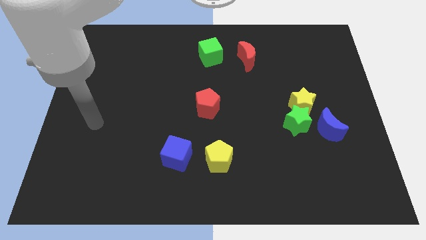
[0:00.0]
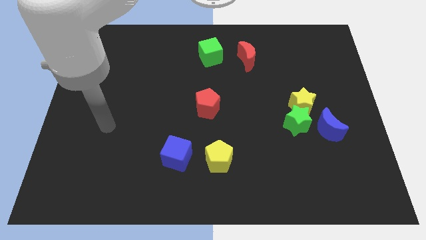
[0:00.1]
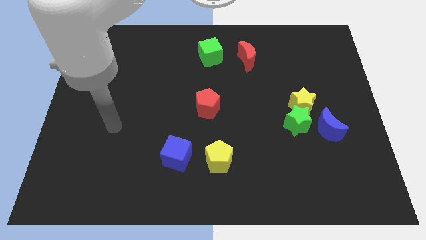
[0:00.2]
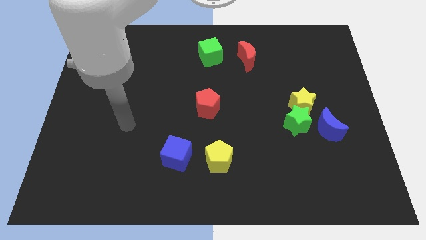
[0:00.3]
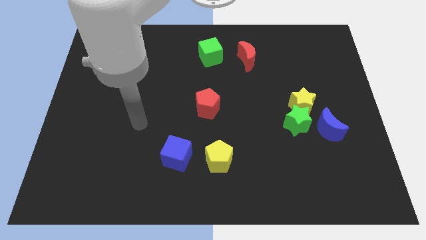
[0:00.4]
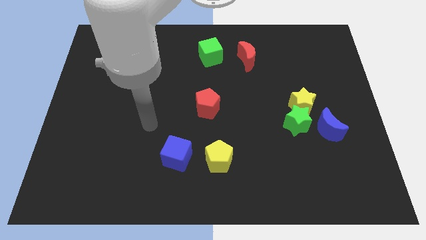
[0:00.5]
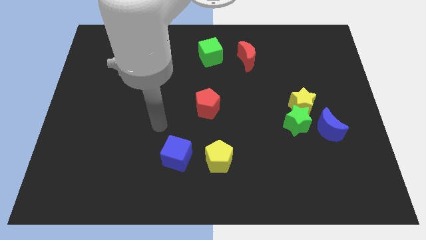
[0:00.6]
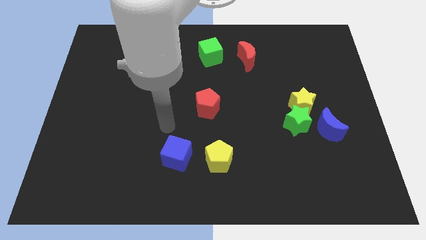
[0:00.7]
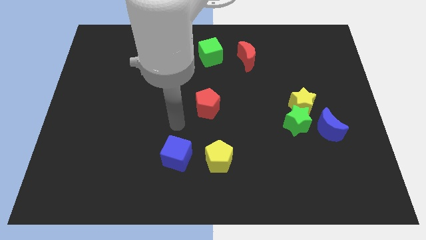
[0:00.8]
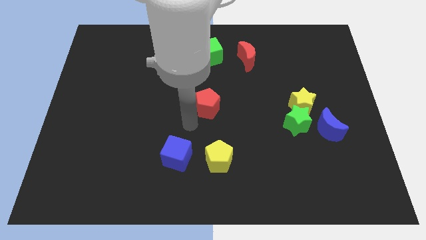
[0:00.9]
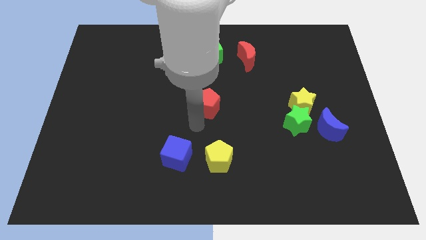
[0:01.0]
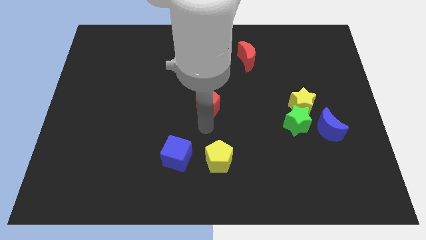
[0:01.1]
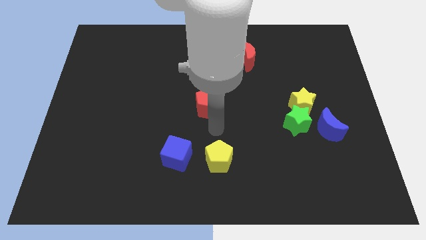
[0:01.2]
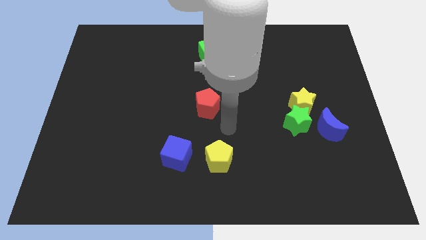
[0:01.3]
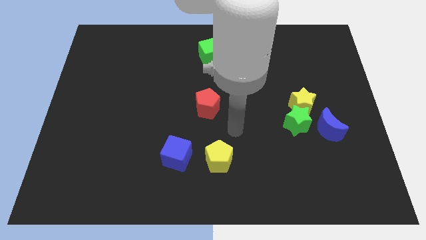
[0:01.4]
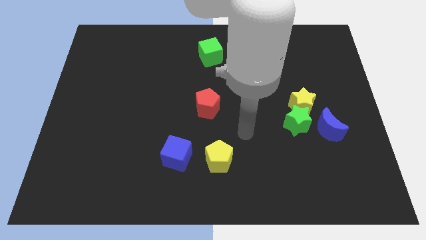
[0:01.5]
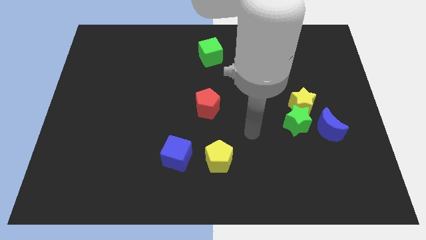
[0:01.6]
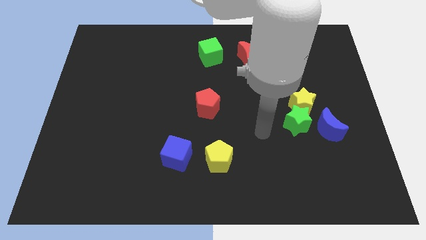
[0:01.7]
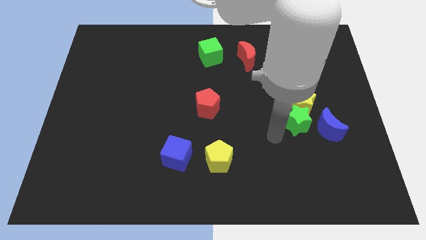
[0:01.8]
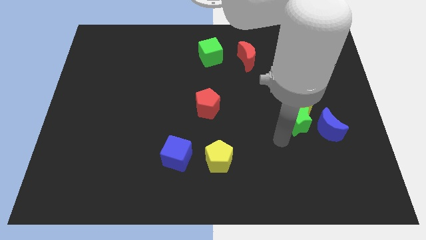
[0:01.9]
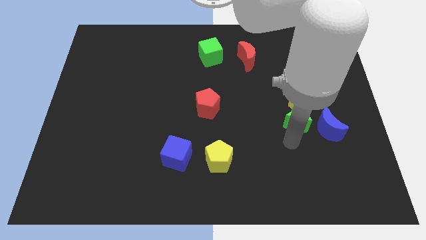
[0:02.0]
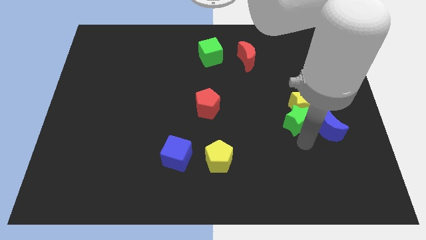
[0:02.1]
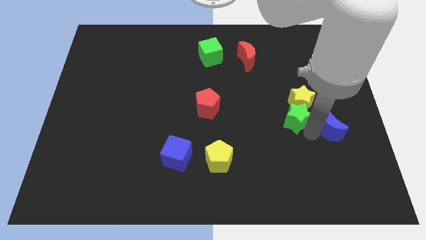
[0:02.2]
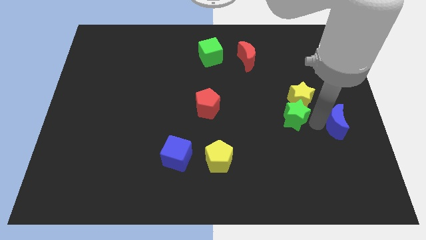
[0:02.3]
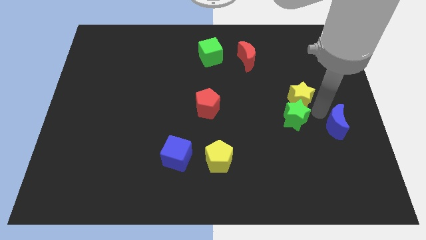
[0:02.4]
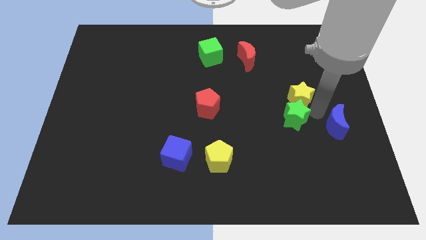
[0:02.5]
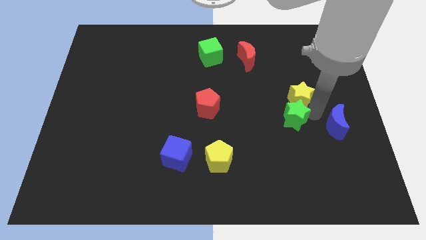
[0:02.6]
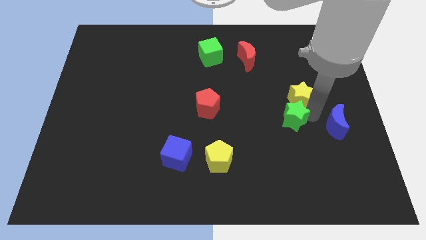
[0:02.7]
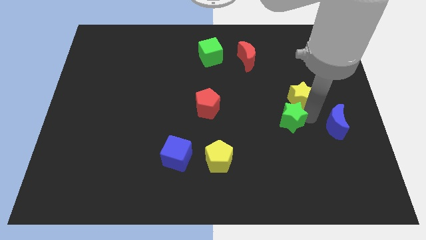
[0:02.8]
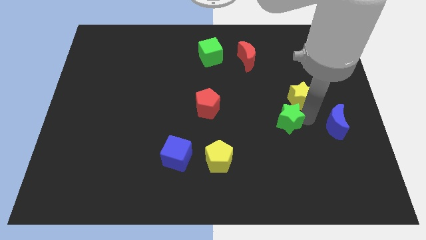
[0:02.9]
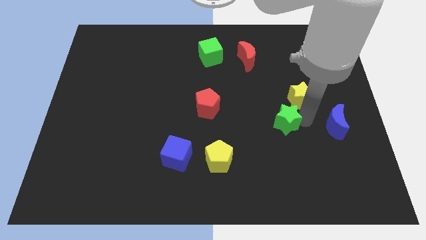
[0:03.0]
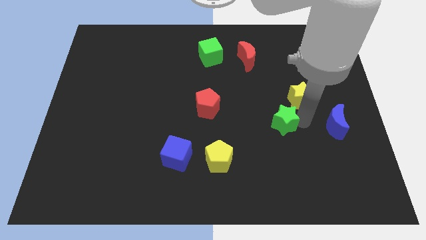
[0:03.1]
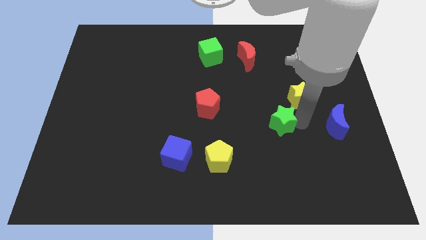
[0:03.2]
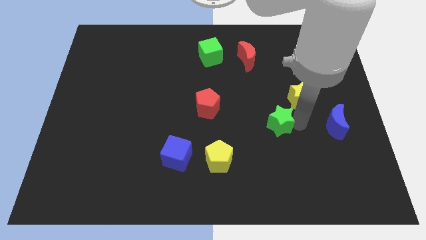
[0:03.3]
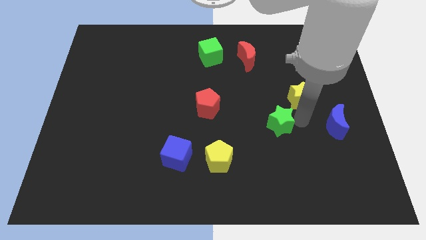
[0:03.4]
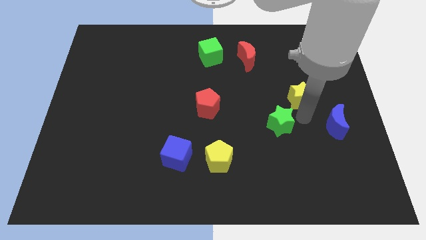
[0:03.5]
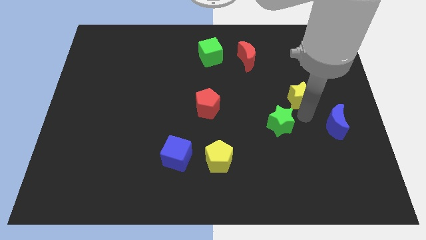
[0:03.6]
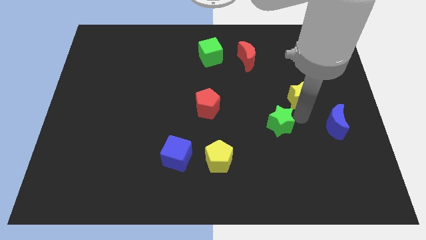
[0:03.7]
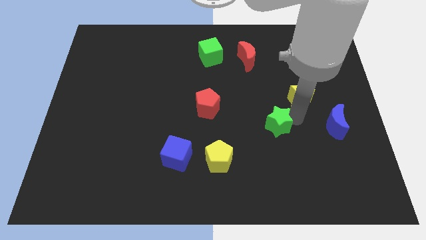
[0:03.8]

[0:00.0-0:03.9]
separate the green star from the yellow star and blue moon

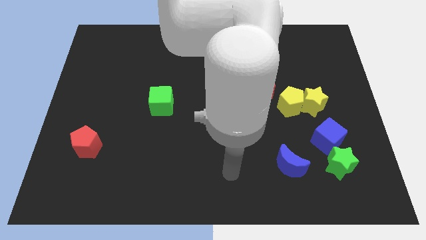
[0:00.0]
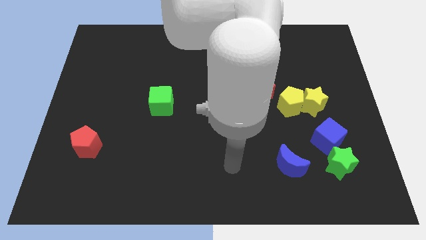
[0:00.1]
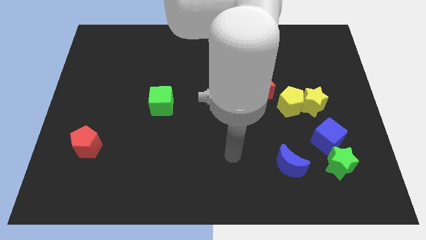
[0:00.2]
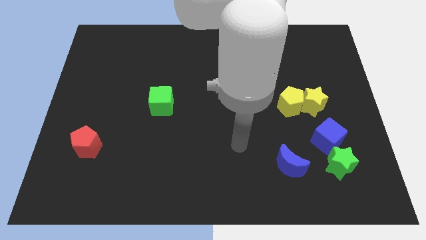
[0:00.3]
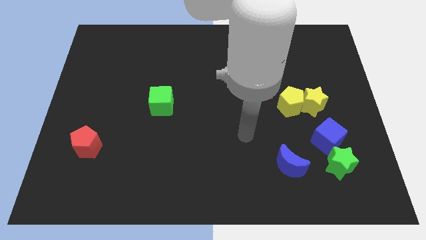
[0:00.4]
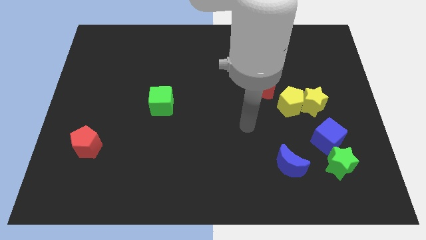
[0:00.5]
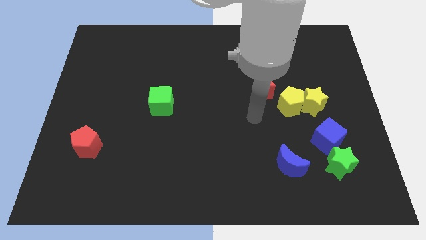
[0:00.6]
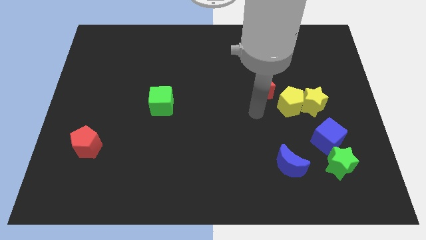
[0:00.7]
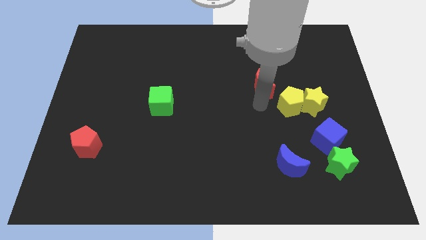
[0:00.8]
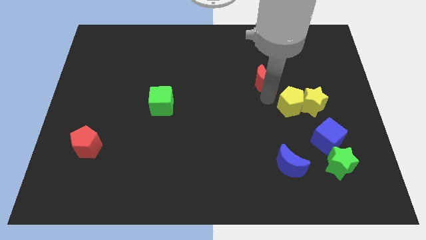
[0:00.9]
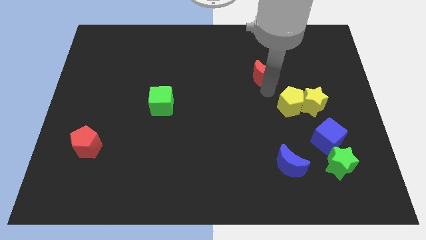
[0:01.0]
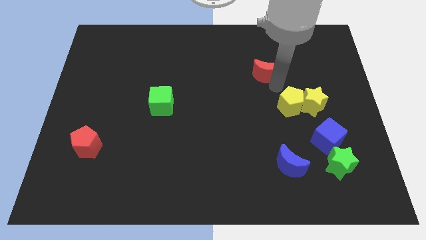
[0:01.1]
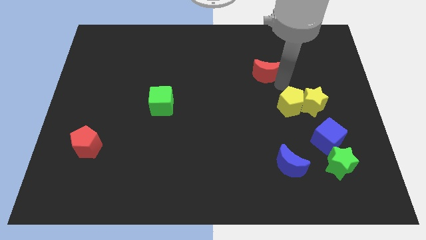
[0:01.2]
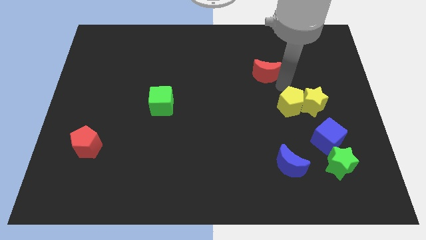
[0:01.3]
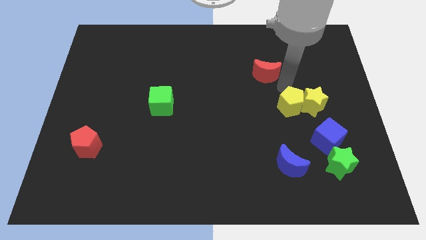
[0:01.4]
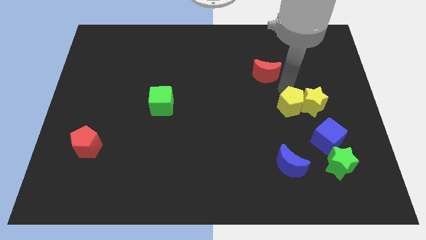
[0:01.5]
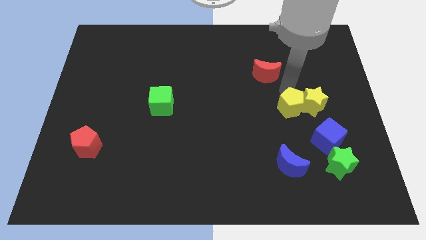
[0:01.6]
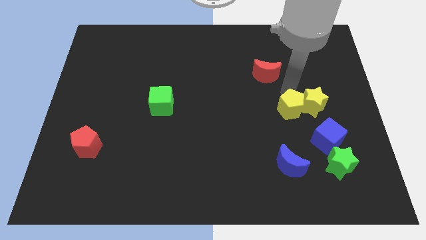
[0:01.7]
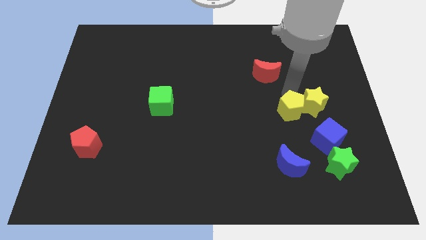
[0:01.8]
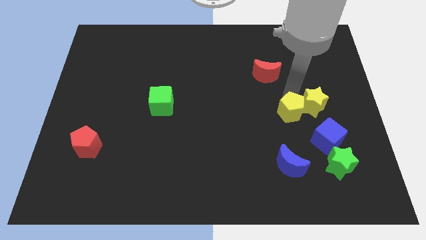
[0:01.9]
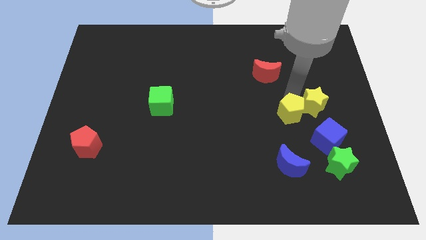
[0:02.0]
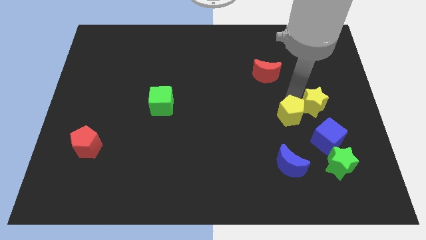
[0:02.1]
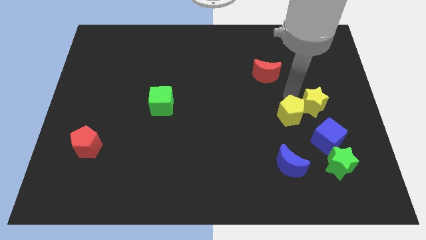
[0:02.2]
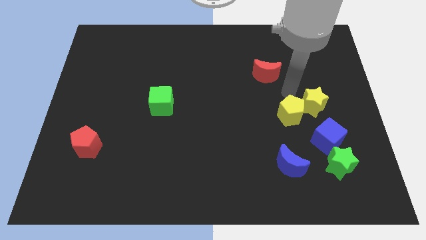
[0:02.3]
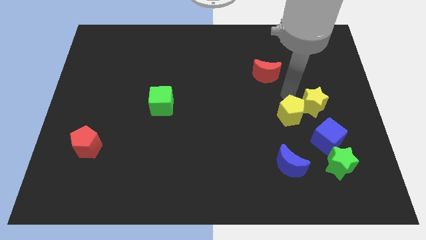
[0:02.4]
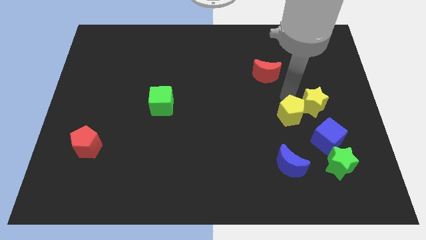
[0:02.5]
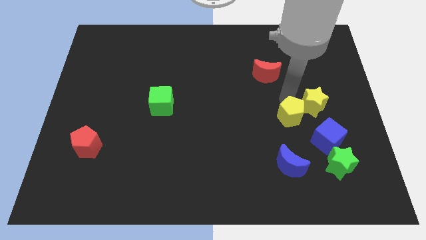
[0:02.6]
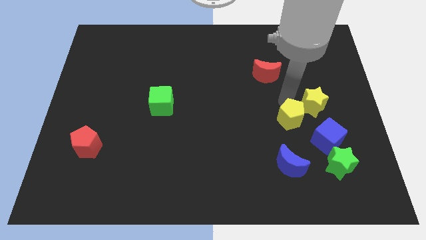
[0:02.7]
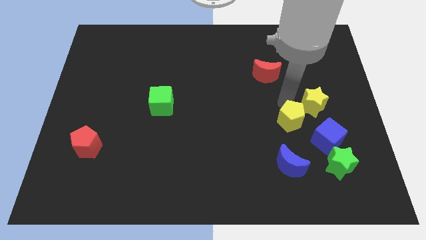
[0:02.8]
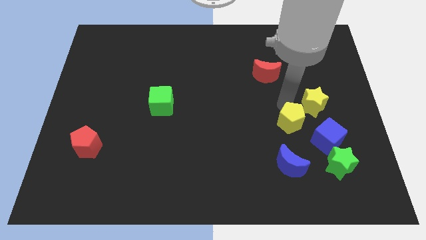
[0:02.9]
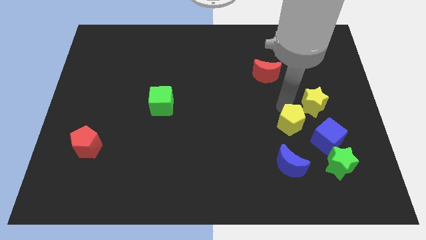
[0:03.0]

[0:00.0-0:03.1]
move the yellow pentagon away from the yellow star and red moon

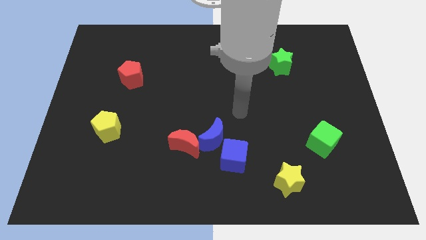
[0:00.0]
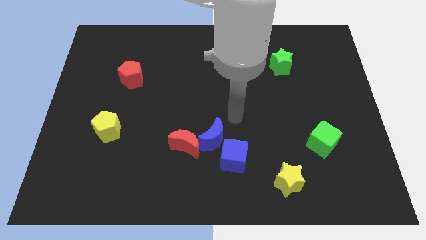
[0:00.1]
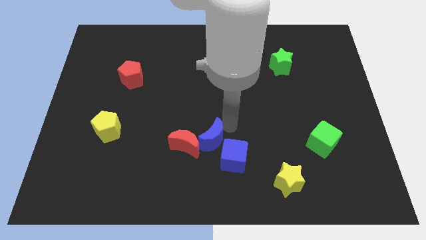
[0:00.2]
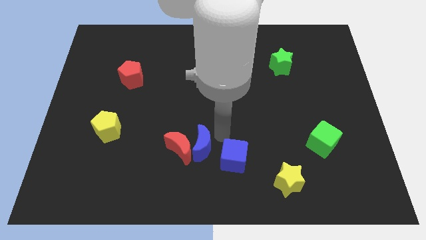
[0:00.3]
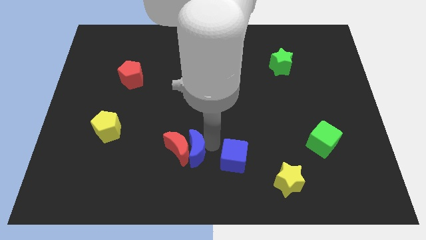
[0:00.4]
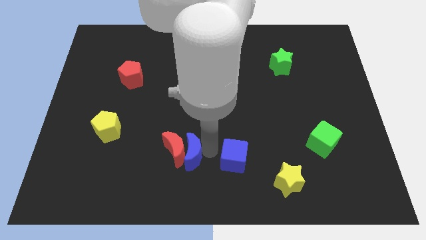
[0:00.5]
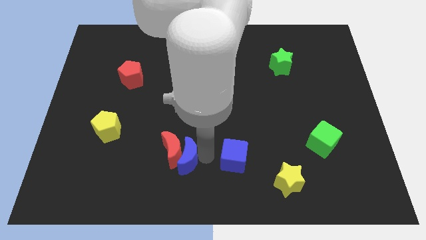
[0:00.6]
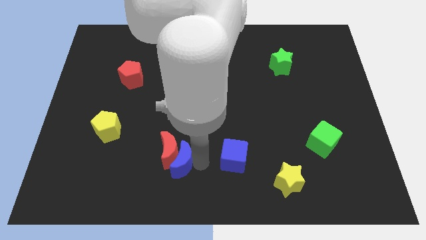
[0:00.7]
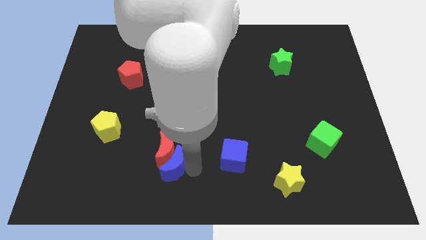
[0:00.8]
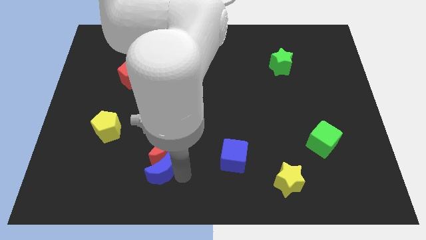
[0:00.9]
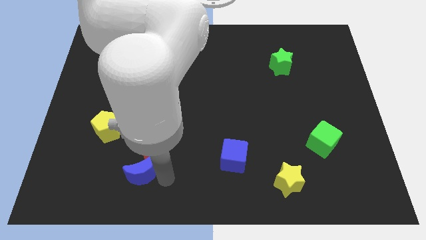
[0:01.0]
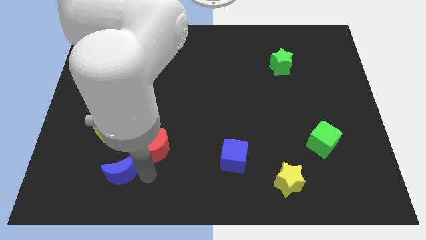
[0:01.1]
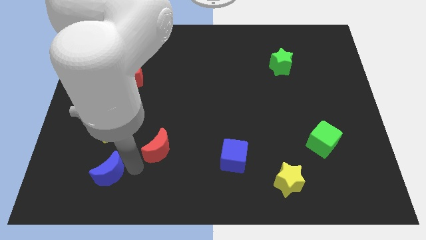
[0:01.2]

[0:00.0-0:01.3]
pull the red moon apart from the blue moon

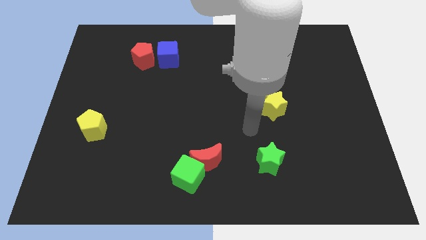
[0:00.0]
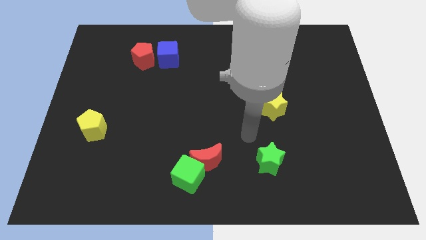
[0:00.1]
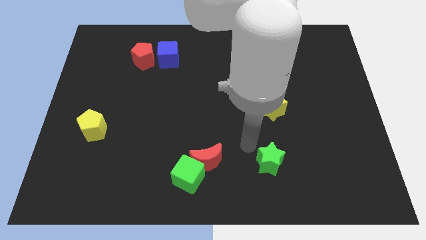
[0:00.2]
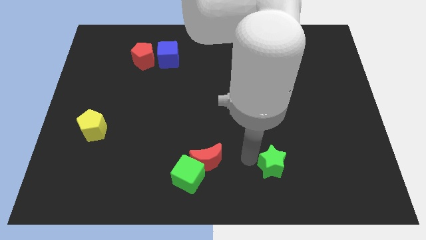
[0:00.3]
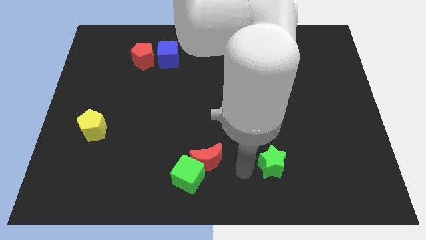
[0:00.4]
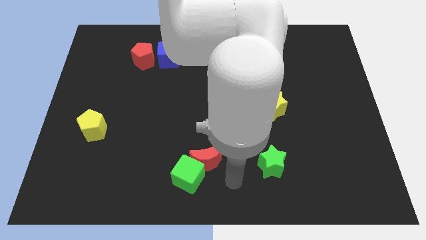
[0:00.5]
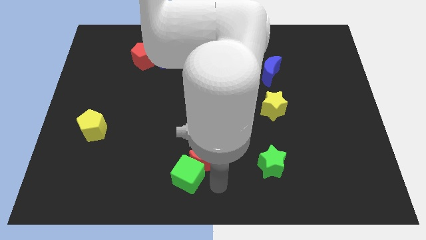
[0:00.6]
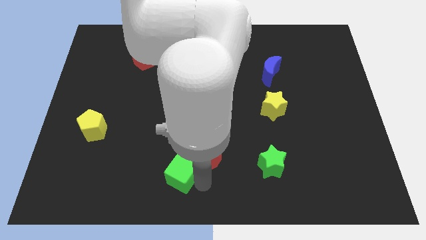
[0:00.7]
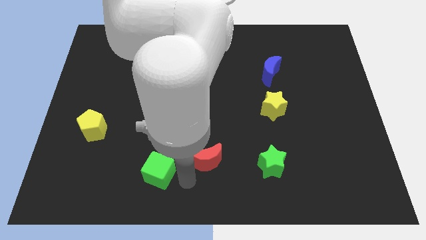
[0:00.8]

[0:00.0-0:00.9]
separate the red moon from the green cube
